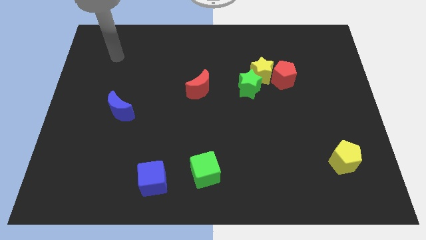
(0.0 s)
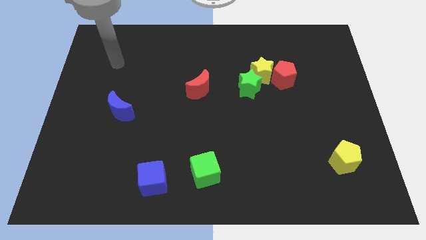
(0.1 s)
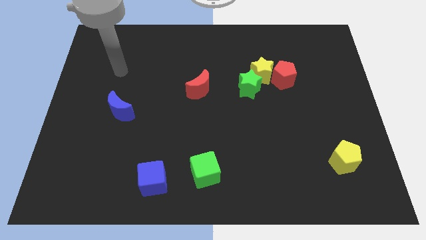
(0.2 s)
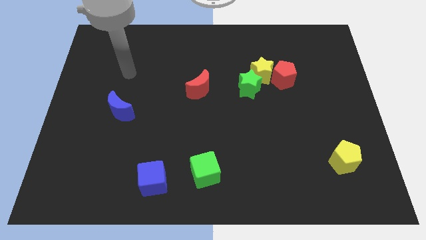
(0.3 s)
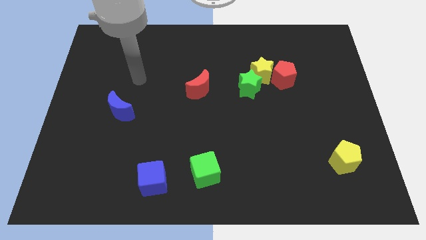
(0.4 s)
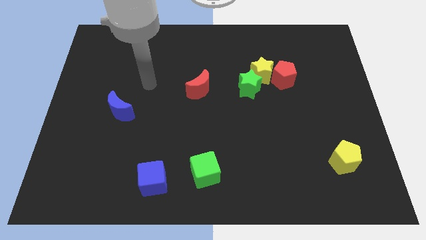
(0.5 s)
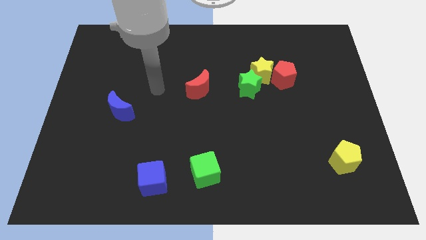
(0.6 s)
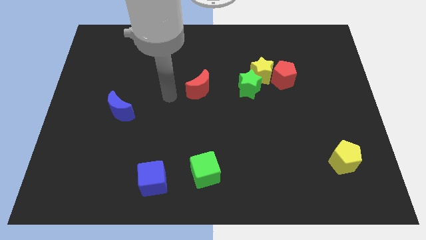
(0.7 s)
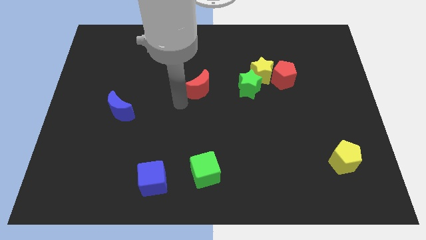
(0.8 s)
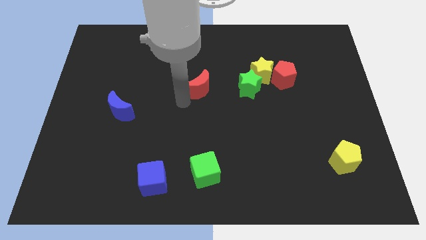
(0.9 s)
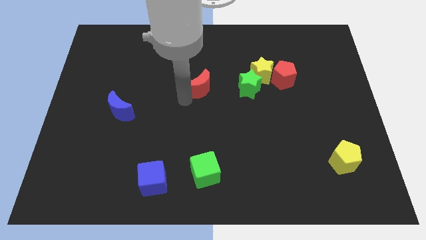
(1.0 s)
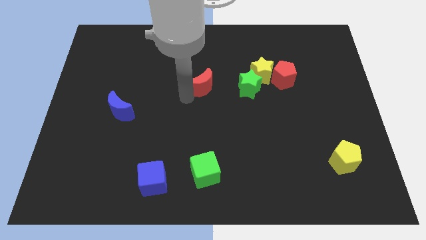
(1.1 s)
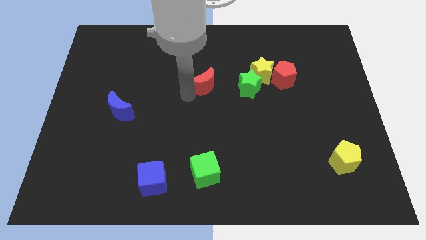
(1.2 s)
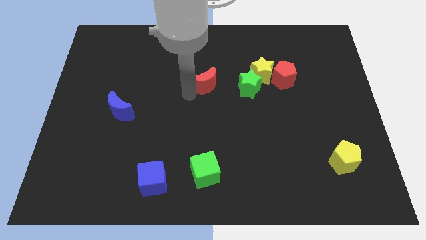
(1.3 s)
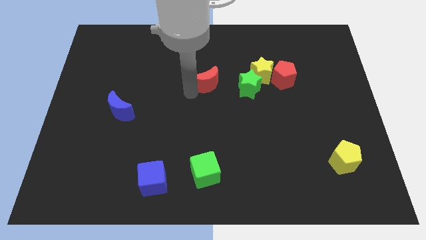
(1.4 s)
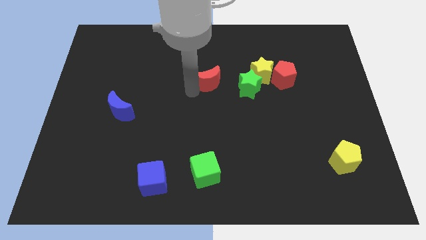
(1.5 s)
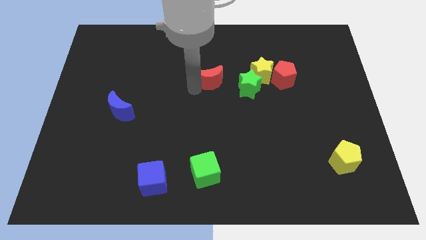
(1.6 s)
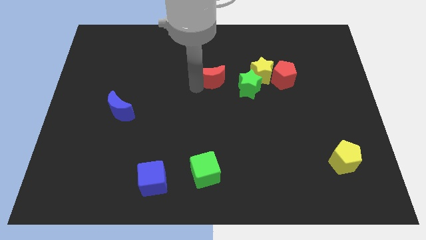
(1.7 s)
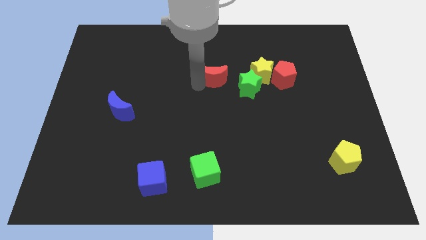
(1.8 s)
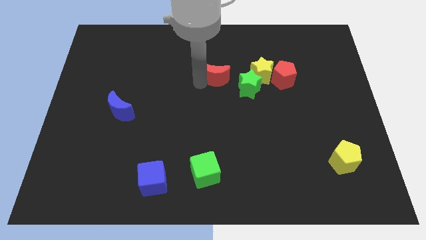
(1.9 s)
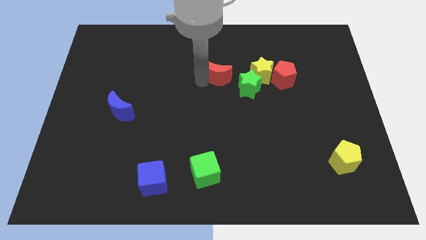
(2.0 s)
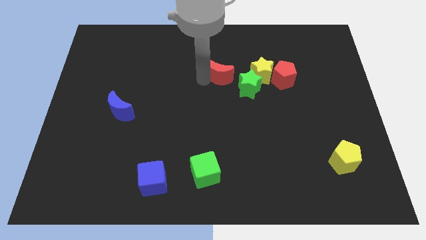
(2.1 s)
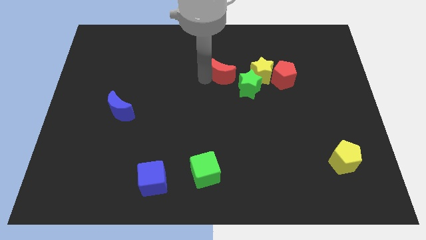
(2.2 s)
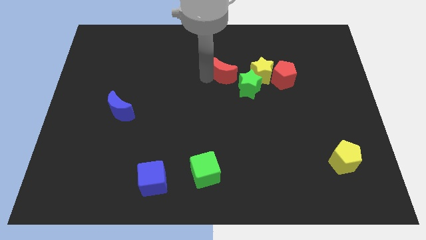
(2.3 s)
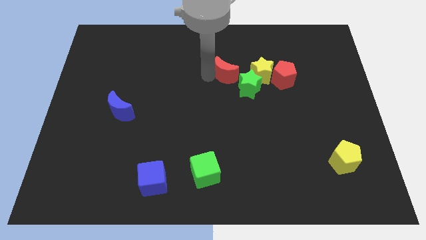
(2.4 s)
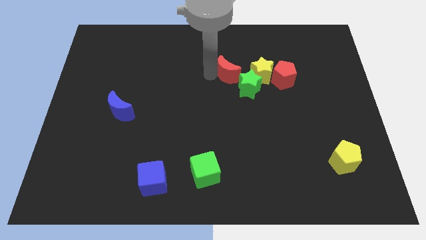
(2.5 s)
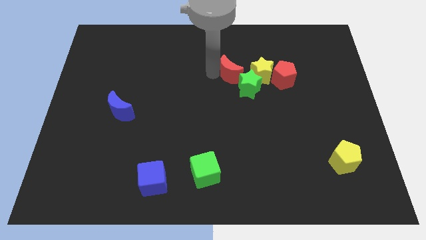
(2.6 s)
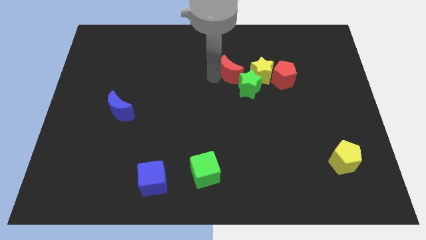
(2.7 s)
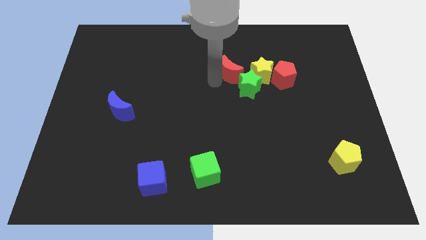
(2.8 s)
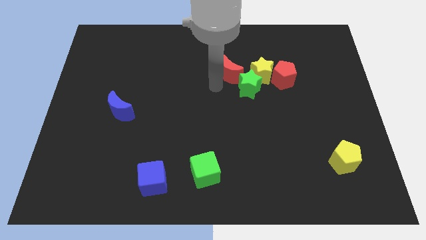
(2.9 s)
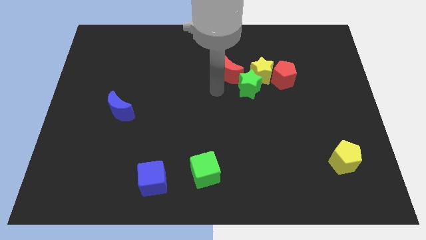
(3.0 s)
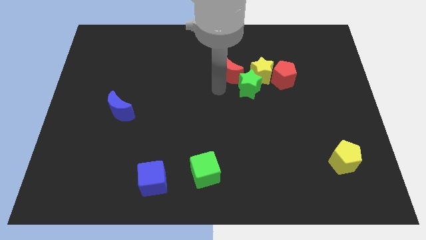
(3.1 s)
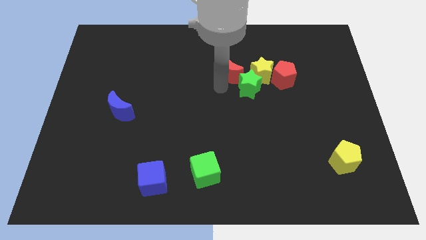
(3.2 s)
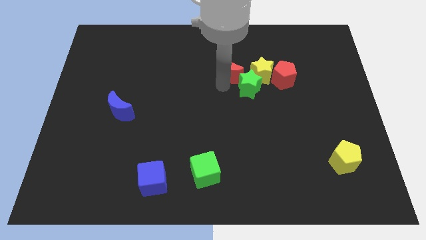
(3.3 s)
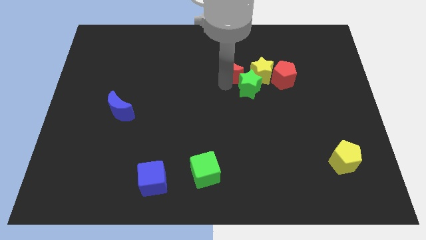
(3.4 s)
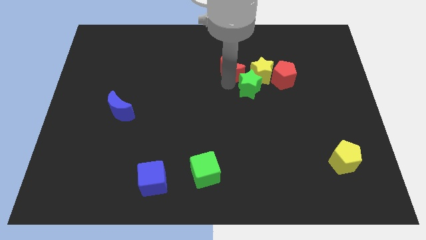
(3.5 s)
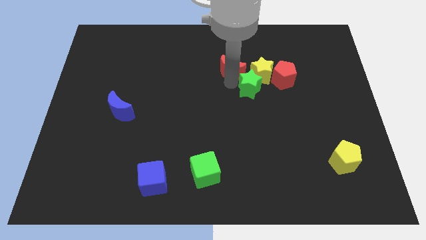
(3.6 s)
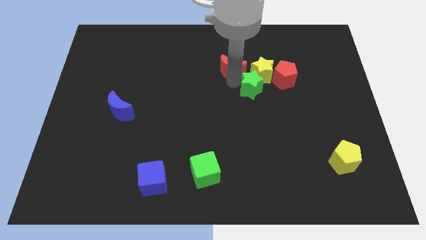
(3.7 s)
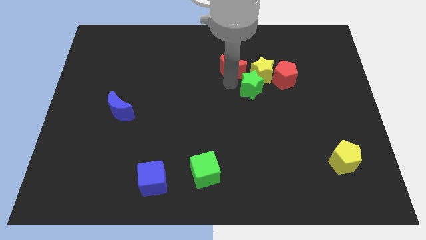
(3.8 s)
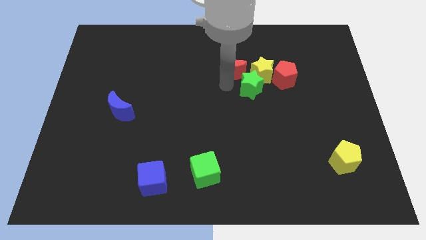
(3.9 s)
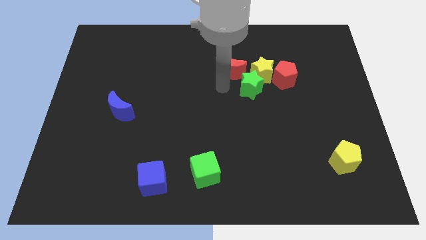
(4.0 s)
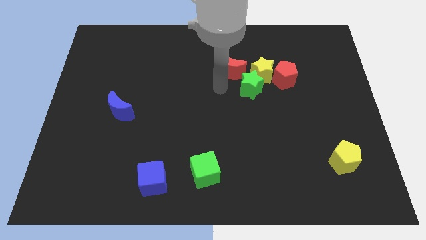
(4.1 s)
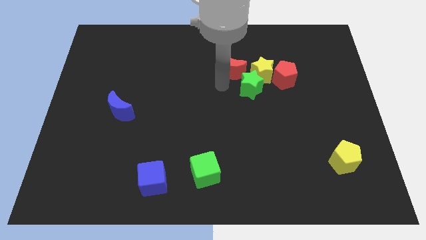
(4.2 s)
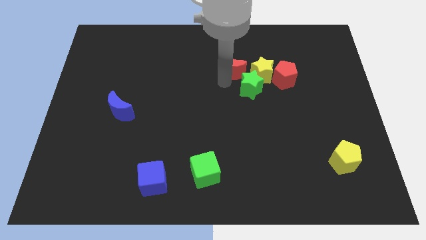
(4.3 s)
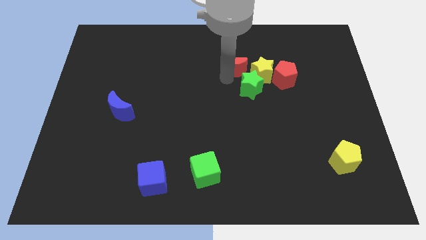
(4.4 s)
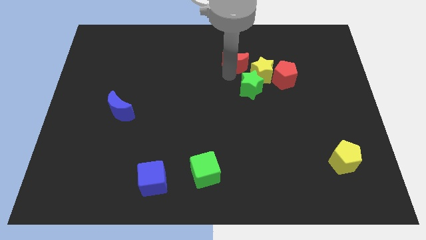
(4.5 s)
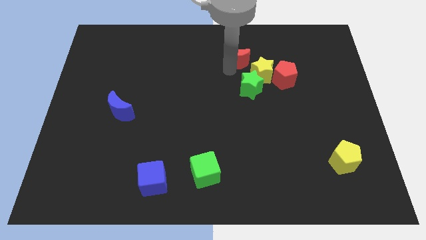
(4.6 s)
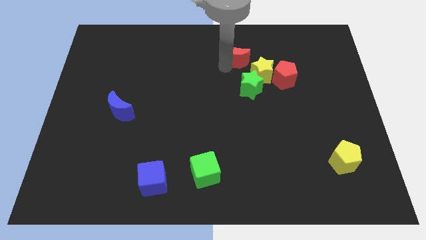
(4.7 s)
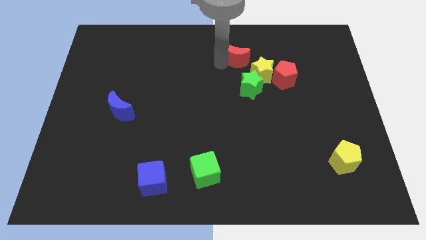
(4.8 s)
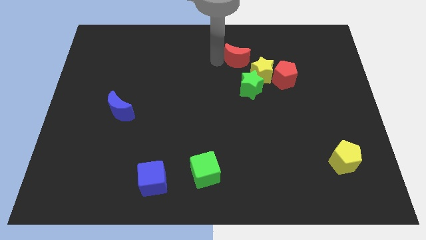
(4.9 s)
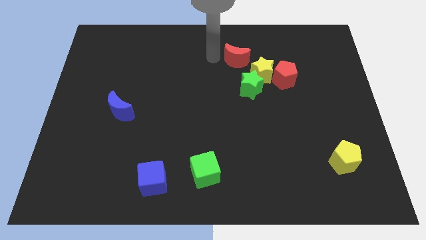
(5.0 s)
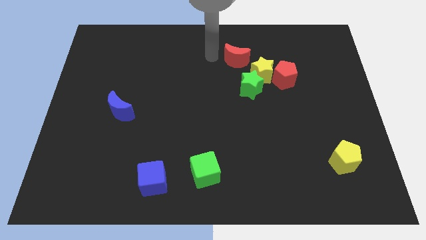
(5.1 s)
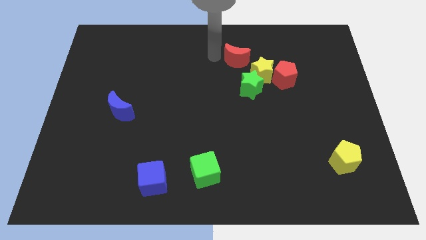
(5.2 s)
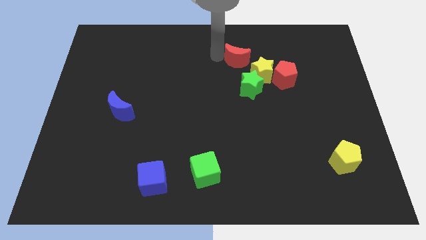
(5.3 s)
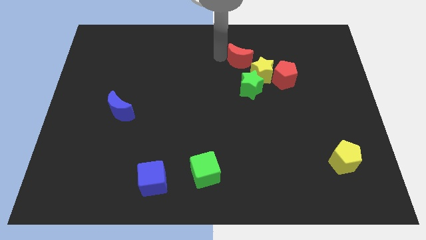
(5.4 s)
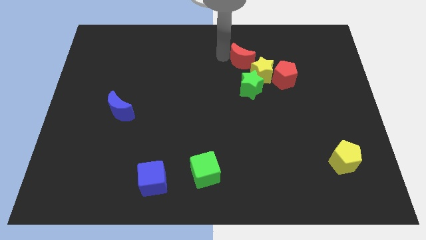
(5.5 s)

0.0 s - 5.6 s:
move the red moon diagonally up and to the left of the red pentagon

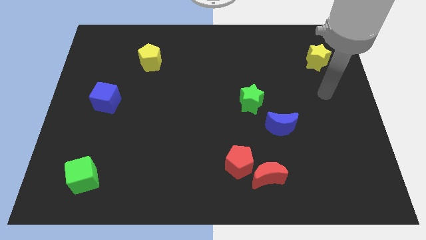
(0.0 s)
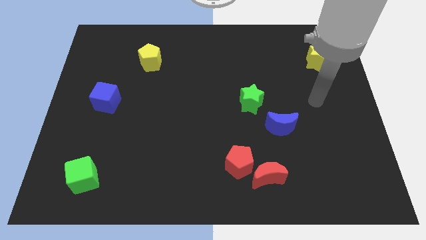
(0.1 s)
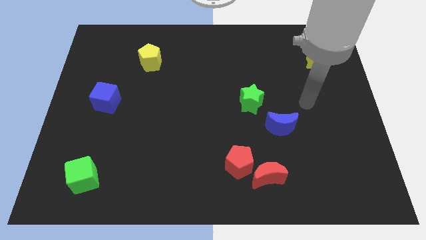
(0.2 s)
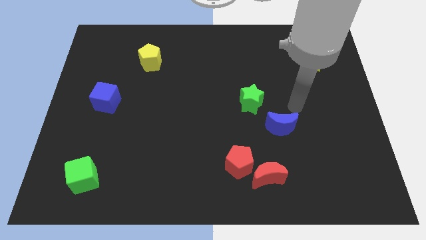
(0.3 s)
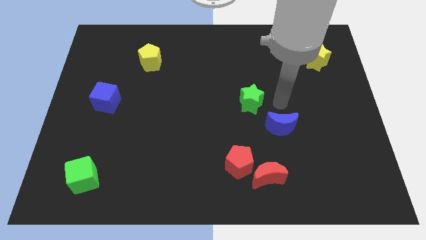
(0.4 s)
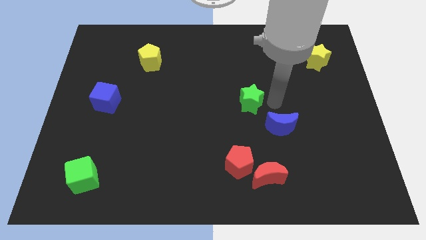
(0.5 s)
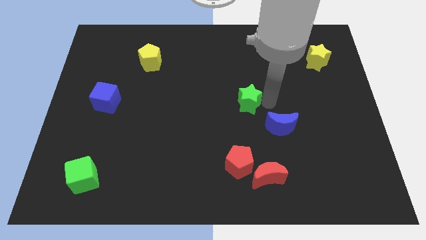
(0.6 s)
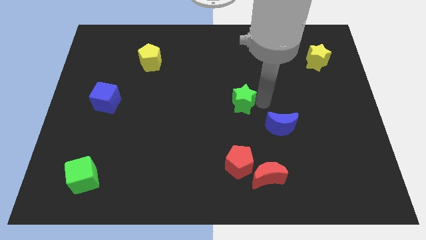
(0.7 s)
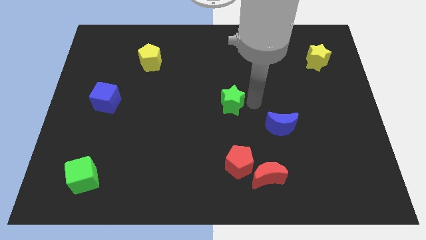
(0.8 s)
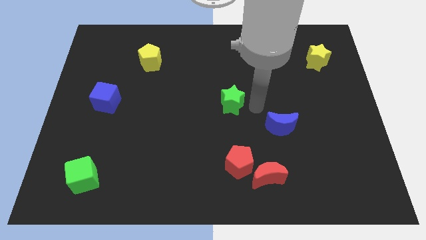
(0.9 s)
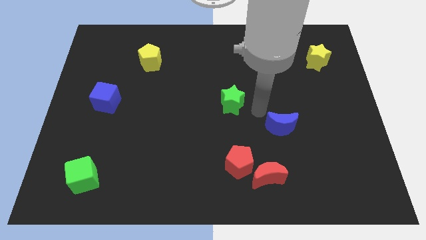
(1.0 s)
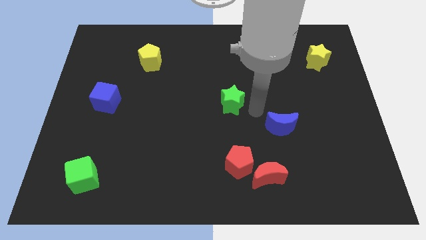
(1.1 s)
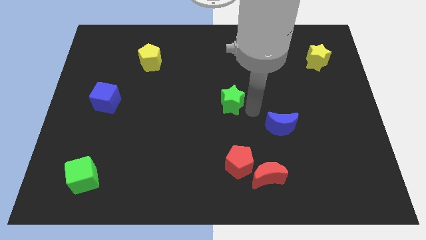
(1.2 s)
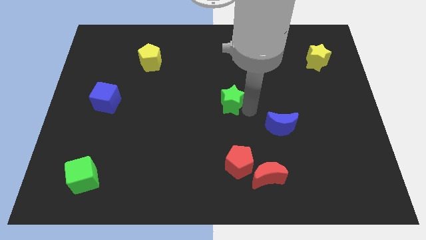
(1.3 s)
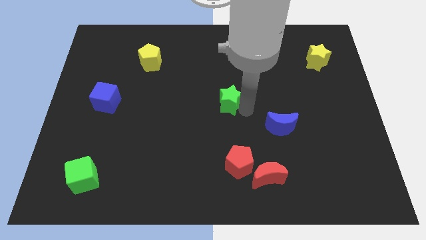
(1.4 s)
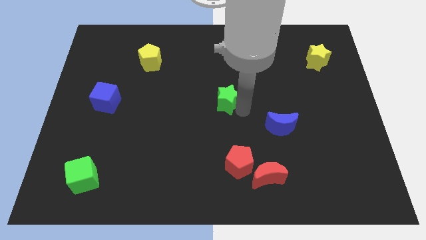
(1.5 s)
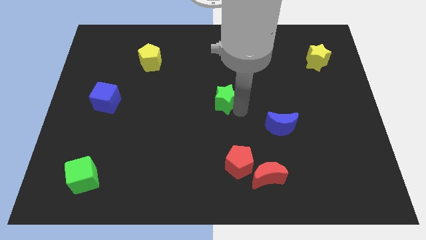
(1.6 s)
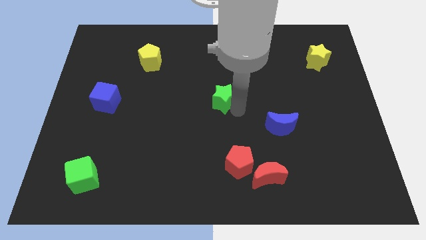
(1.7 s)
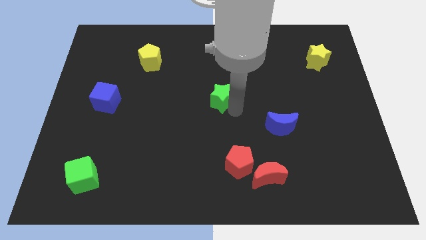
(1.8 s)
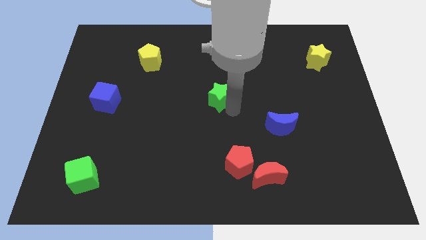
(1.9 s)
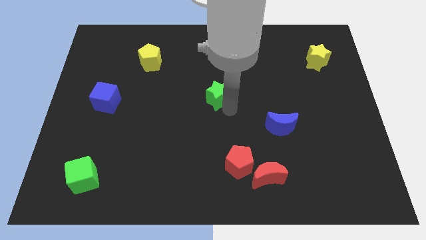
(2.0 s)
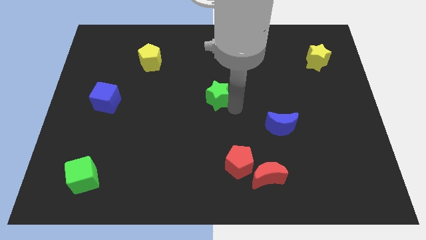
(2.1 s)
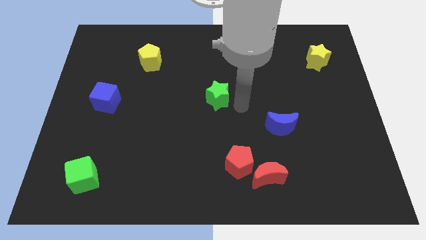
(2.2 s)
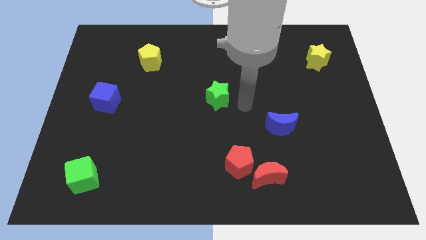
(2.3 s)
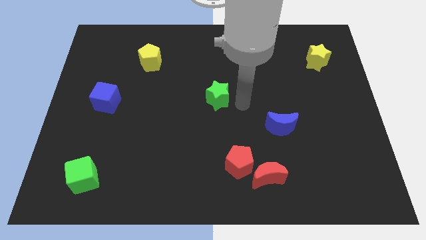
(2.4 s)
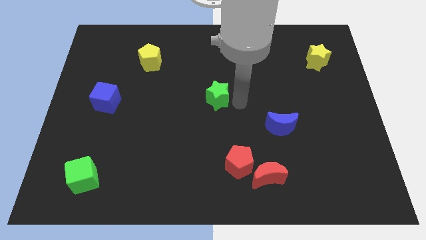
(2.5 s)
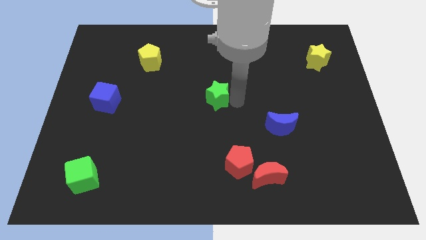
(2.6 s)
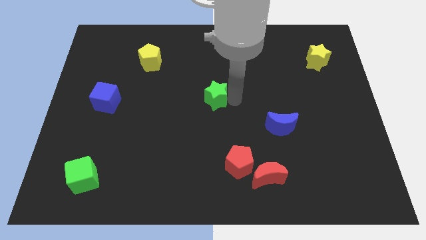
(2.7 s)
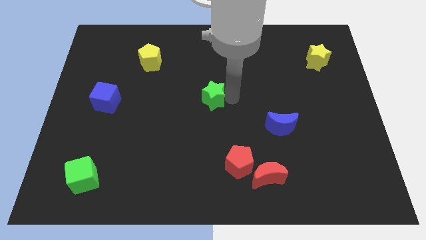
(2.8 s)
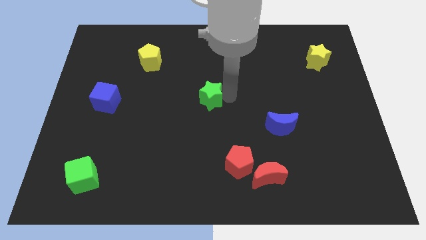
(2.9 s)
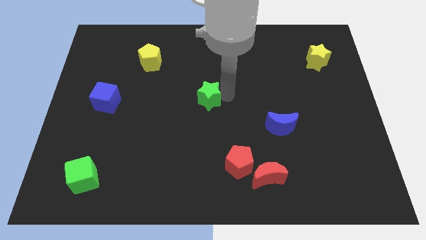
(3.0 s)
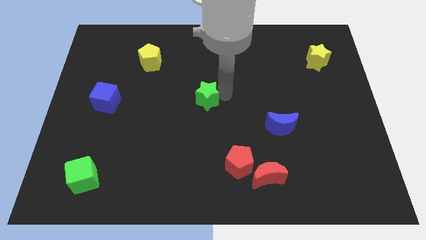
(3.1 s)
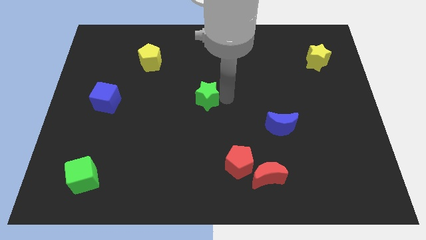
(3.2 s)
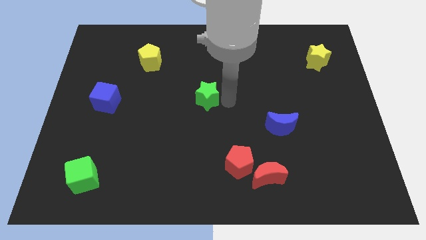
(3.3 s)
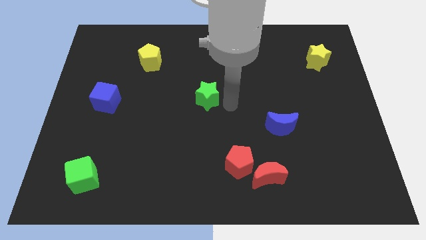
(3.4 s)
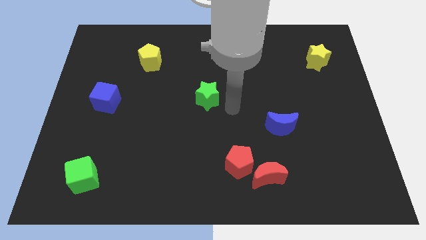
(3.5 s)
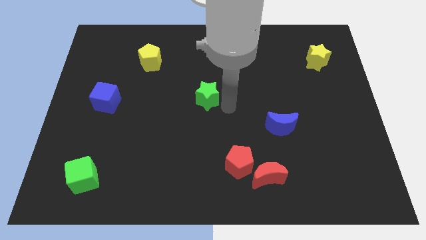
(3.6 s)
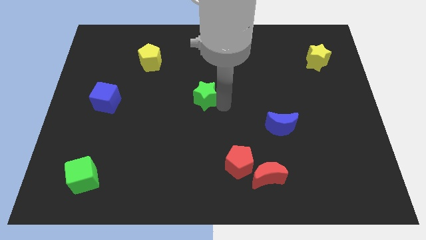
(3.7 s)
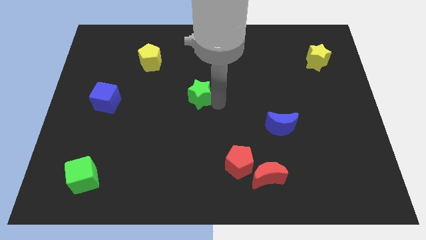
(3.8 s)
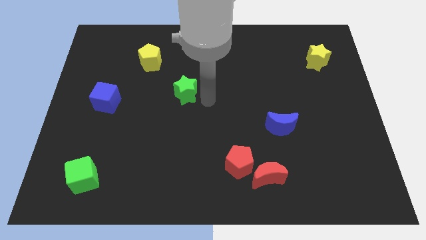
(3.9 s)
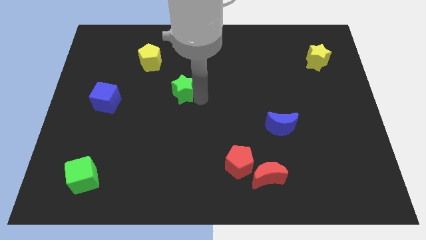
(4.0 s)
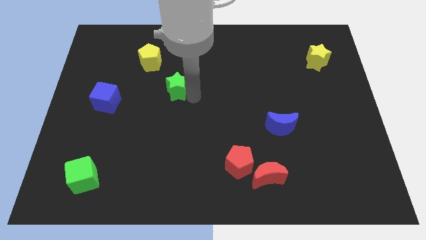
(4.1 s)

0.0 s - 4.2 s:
move the green star to the bottom right of the yellow pentagon
